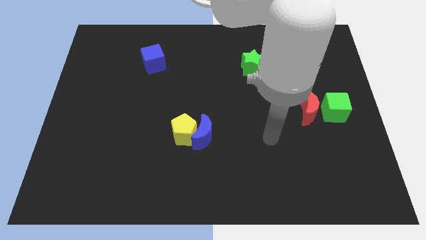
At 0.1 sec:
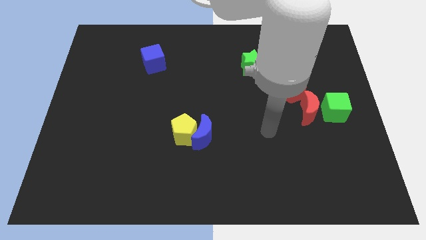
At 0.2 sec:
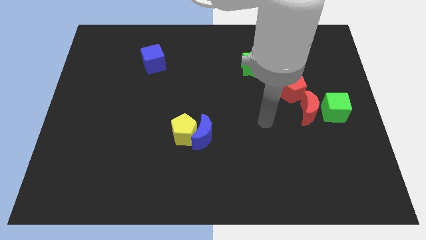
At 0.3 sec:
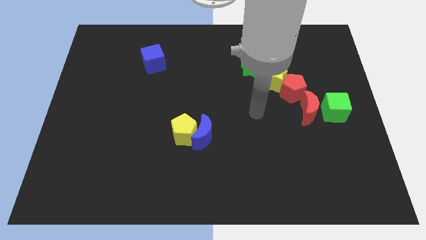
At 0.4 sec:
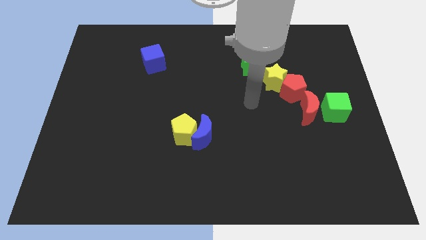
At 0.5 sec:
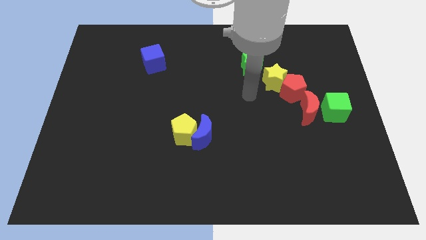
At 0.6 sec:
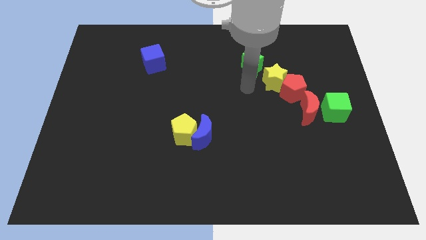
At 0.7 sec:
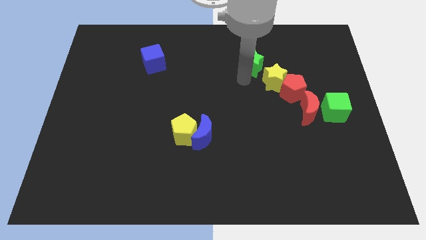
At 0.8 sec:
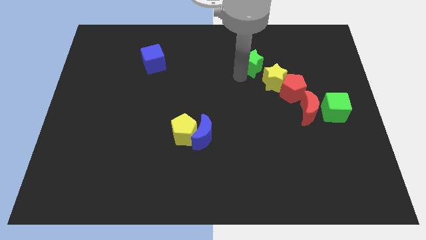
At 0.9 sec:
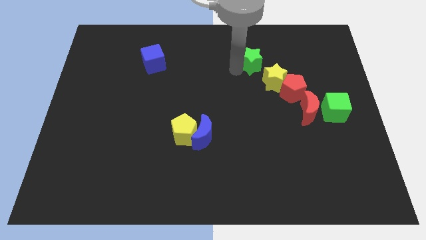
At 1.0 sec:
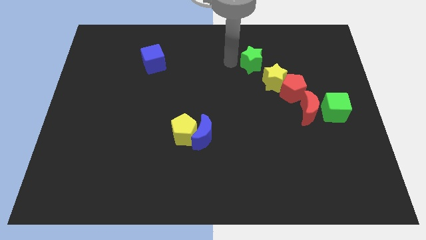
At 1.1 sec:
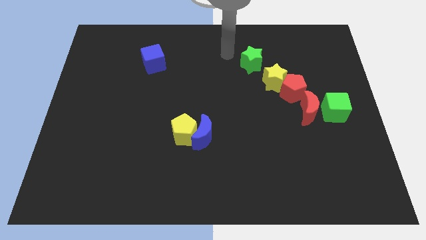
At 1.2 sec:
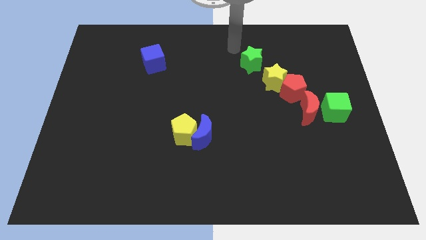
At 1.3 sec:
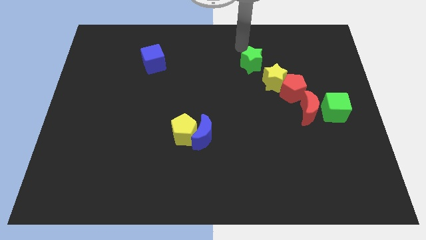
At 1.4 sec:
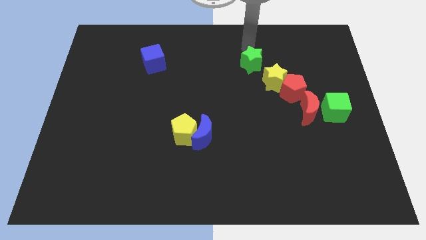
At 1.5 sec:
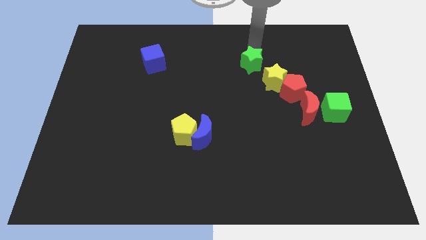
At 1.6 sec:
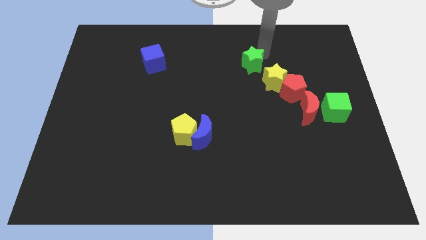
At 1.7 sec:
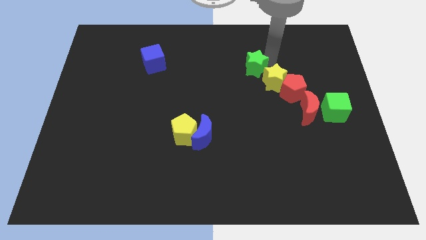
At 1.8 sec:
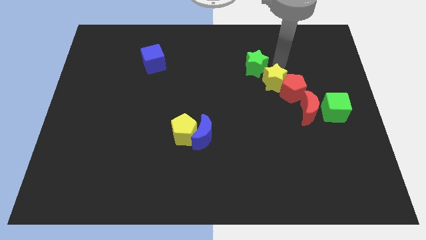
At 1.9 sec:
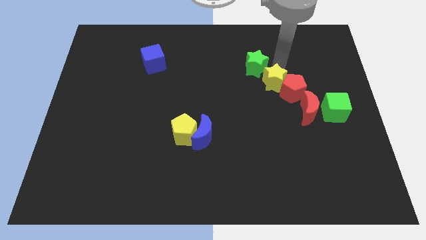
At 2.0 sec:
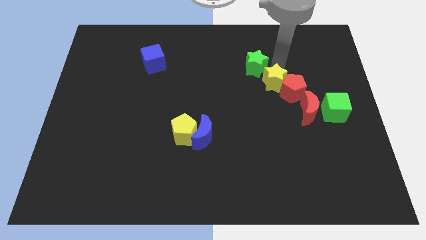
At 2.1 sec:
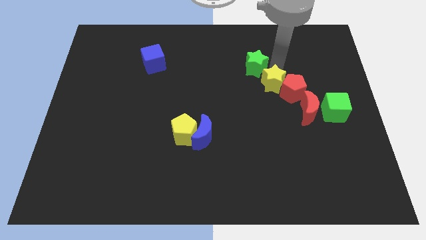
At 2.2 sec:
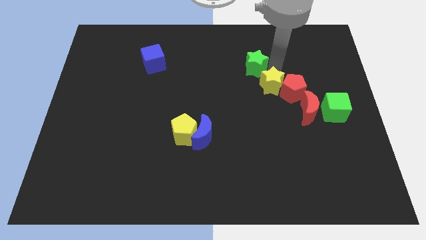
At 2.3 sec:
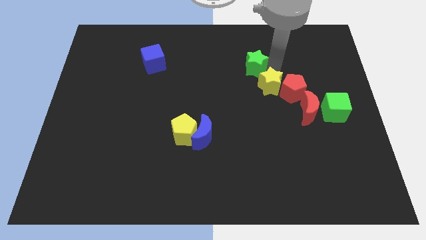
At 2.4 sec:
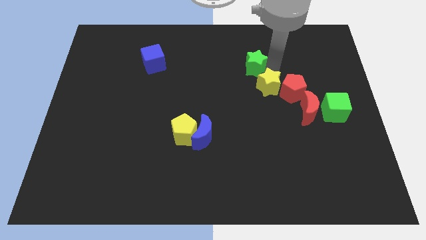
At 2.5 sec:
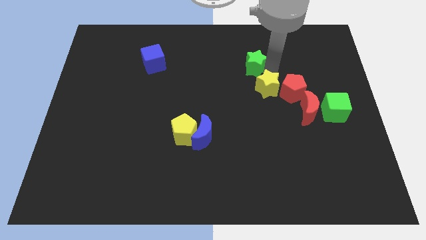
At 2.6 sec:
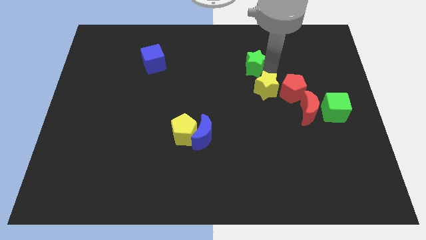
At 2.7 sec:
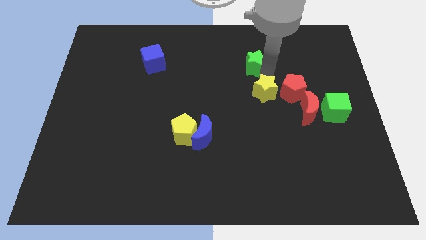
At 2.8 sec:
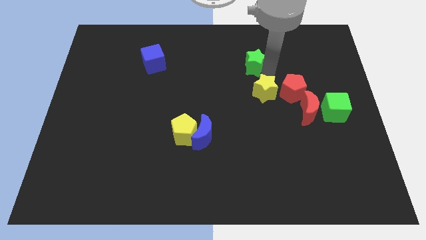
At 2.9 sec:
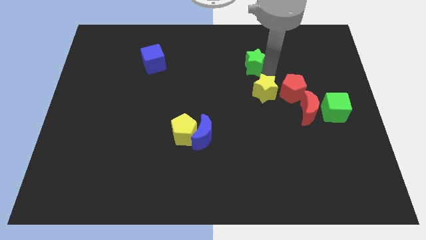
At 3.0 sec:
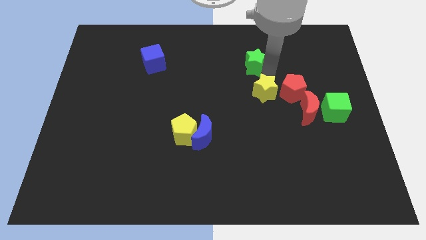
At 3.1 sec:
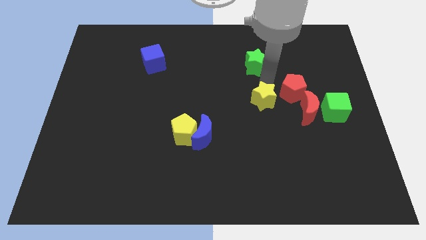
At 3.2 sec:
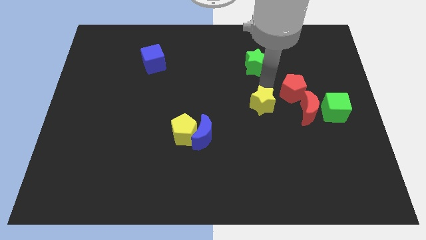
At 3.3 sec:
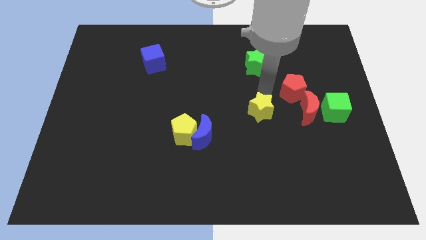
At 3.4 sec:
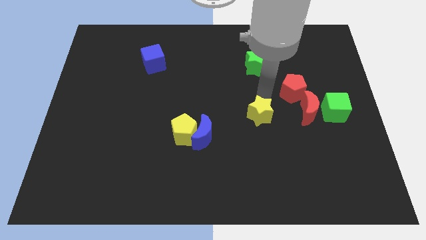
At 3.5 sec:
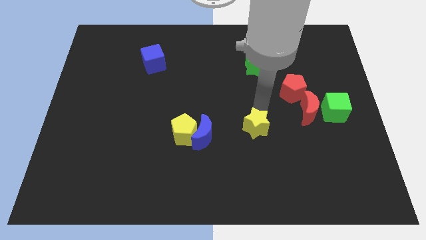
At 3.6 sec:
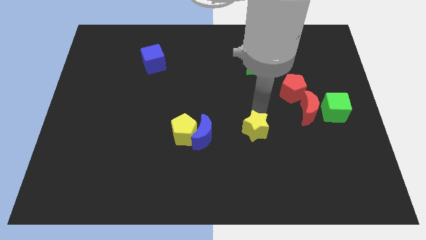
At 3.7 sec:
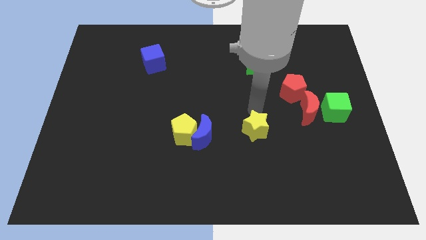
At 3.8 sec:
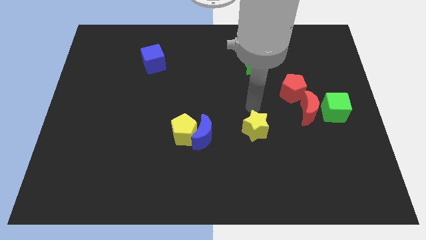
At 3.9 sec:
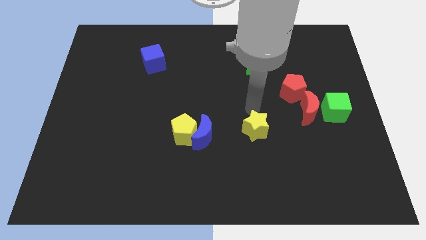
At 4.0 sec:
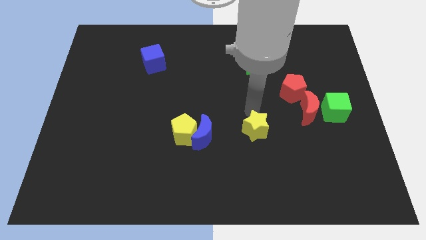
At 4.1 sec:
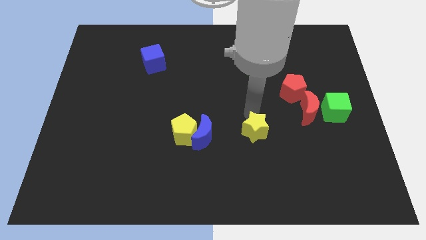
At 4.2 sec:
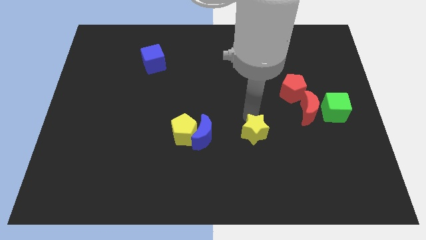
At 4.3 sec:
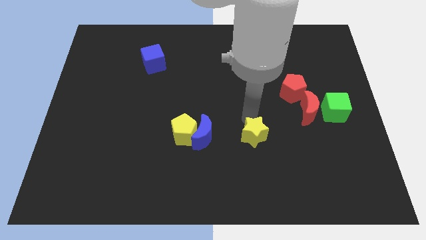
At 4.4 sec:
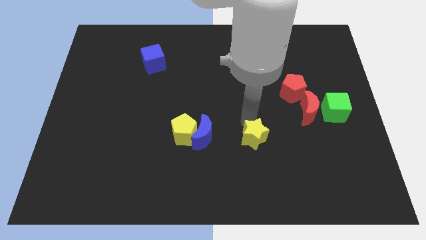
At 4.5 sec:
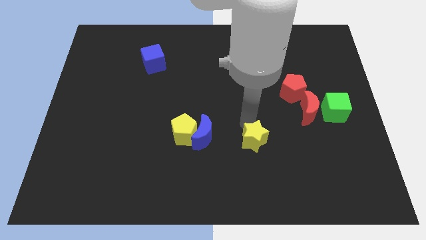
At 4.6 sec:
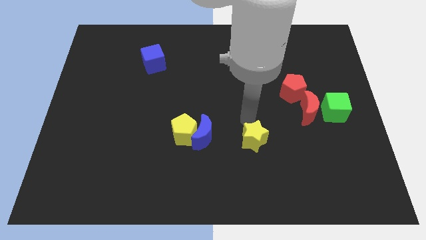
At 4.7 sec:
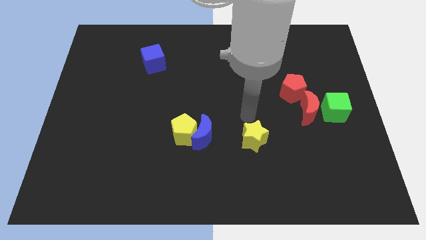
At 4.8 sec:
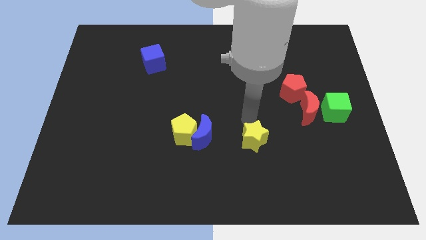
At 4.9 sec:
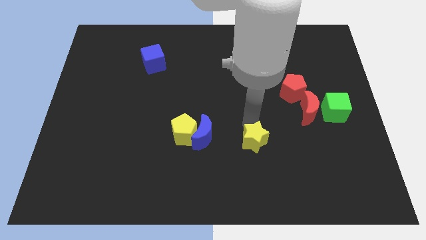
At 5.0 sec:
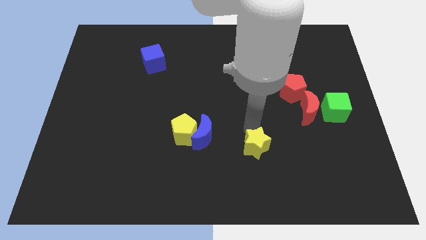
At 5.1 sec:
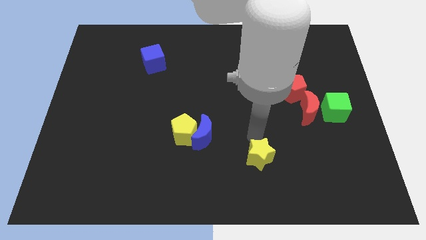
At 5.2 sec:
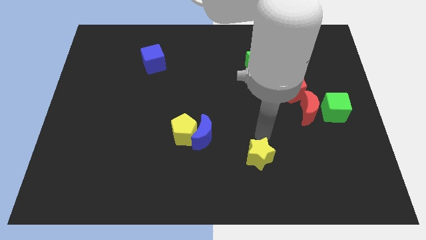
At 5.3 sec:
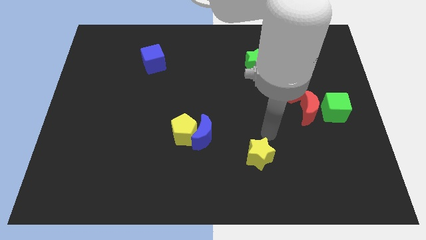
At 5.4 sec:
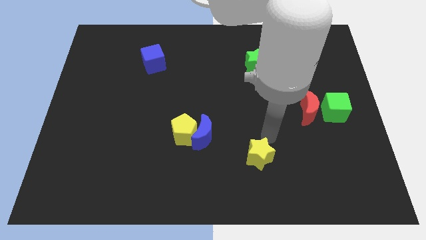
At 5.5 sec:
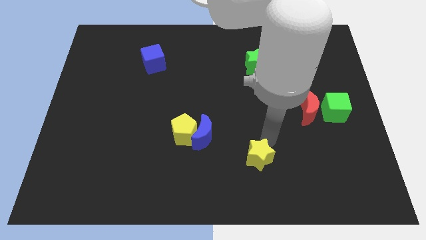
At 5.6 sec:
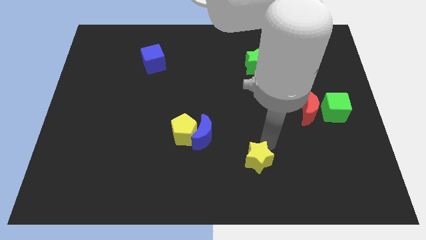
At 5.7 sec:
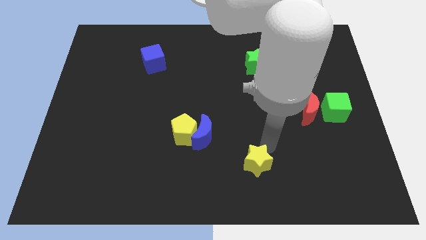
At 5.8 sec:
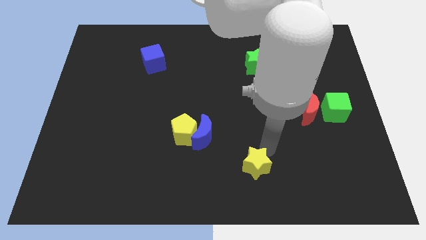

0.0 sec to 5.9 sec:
put the yellow star to the bottom

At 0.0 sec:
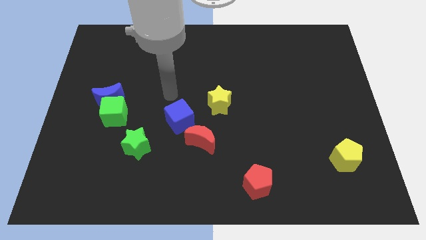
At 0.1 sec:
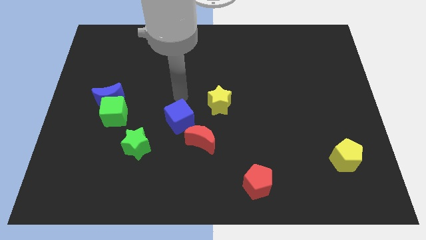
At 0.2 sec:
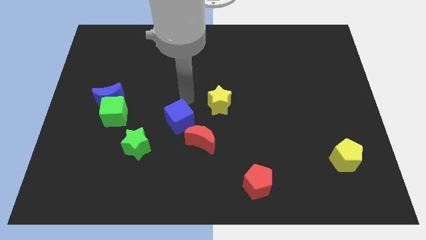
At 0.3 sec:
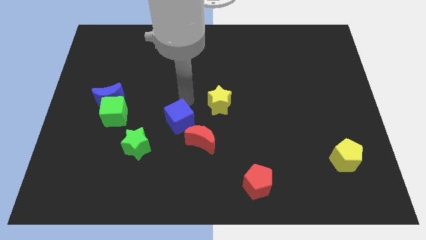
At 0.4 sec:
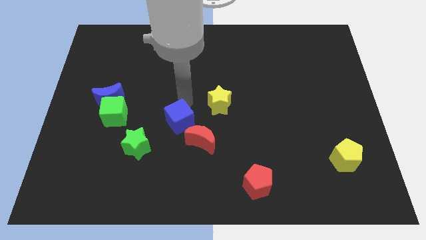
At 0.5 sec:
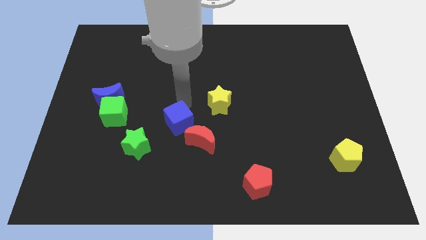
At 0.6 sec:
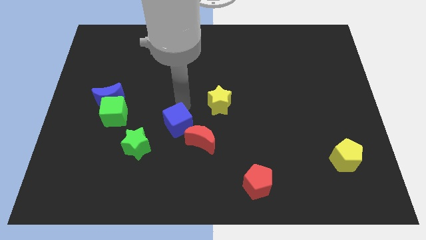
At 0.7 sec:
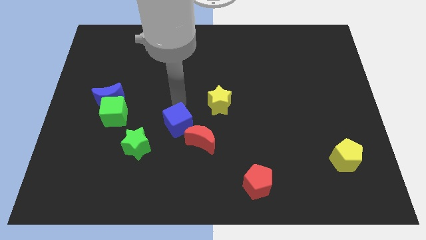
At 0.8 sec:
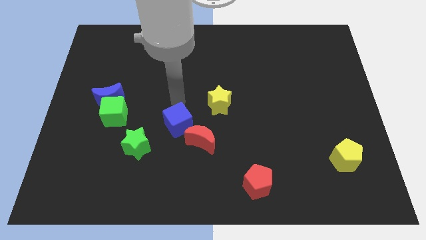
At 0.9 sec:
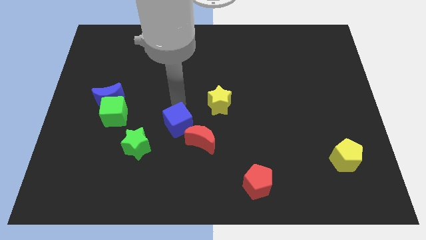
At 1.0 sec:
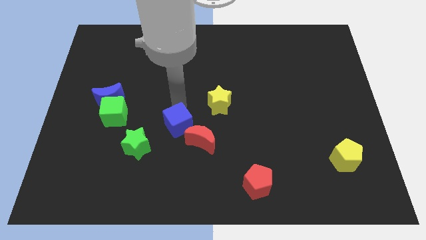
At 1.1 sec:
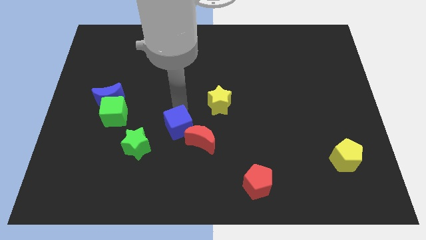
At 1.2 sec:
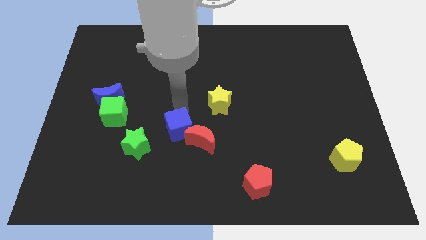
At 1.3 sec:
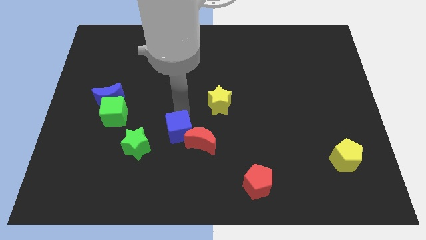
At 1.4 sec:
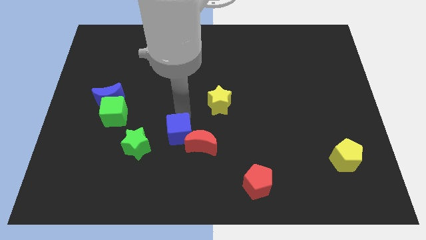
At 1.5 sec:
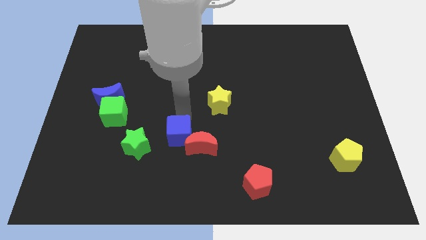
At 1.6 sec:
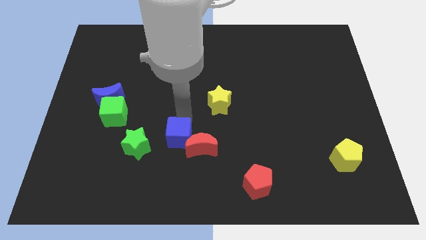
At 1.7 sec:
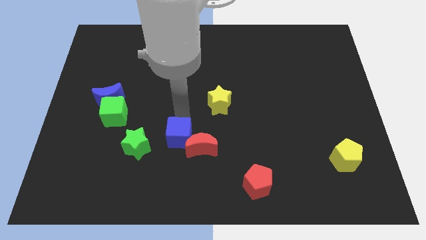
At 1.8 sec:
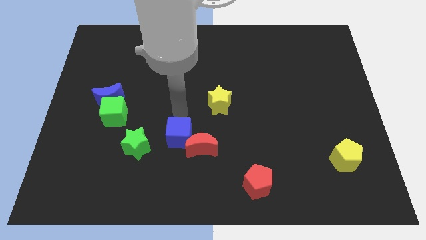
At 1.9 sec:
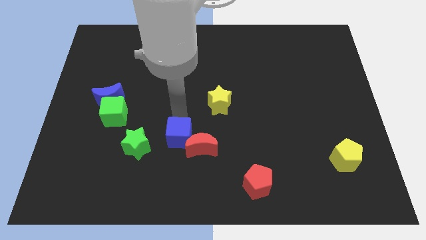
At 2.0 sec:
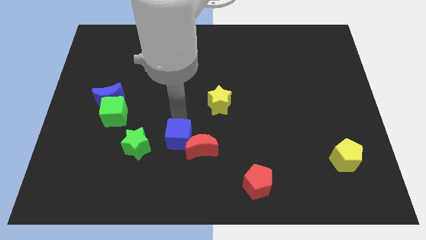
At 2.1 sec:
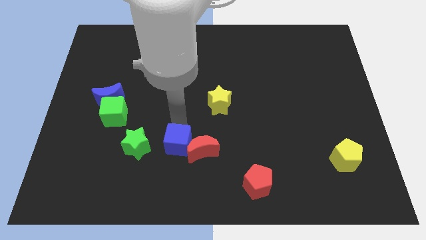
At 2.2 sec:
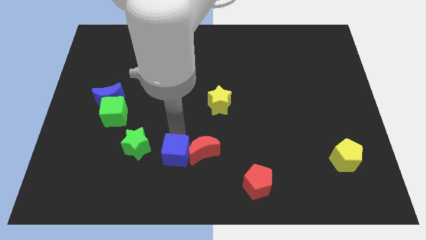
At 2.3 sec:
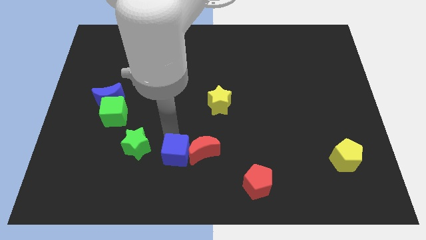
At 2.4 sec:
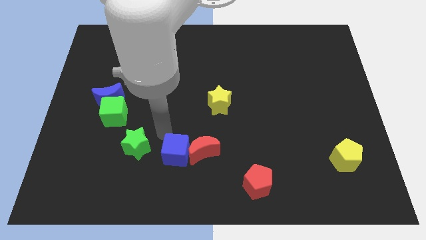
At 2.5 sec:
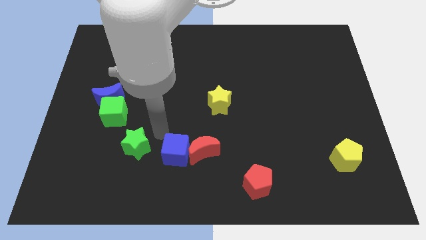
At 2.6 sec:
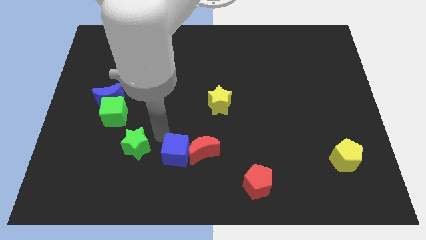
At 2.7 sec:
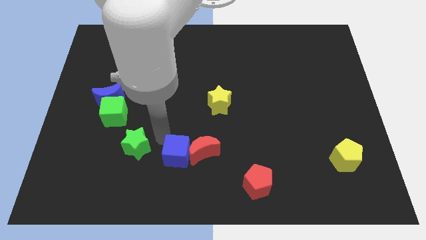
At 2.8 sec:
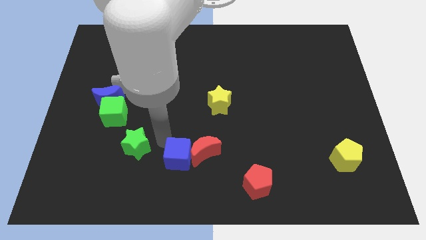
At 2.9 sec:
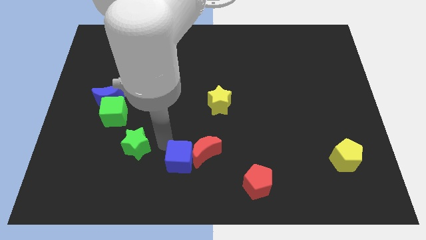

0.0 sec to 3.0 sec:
put the blue cube to the bottom side
